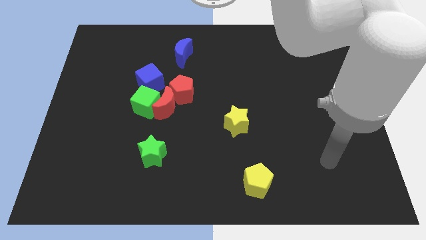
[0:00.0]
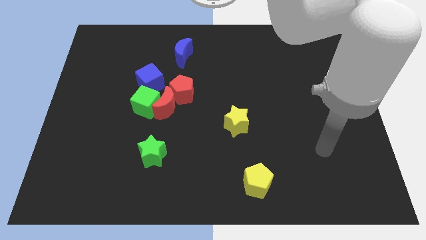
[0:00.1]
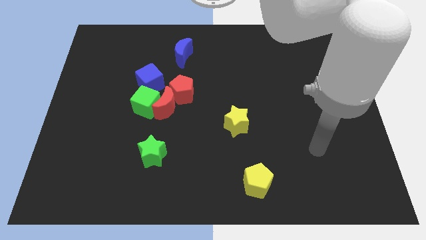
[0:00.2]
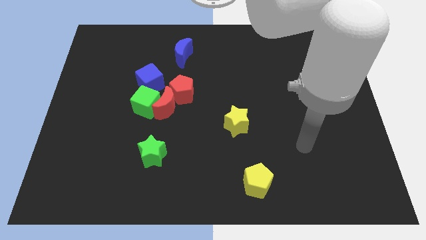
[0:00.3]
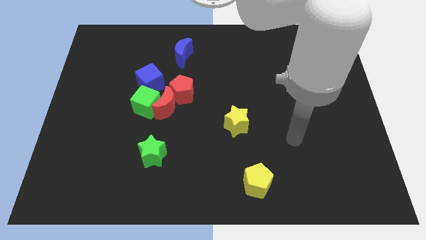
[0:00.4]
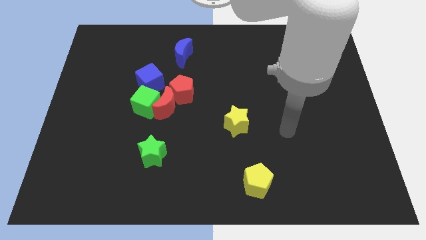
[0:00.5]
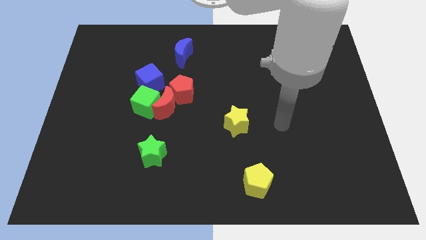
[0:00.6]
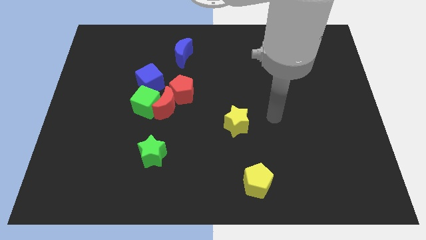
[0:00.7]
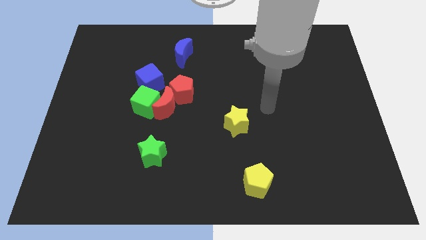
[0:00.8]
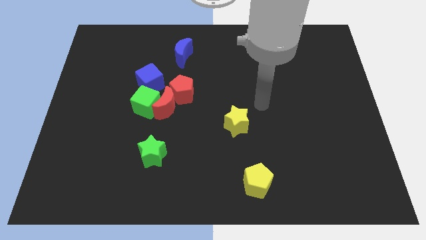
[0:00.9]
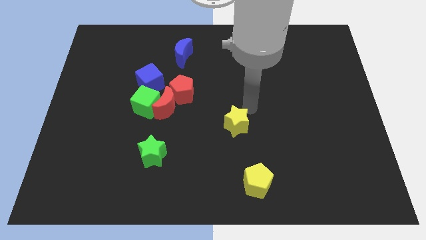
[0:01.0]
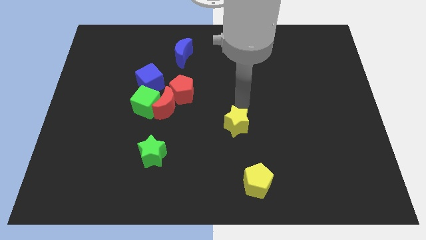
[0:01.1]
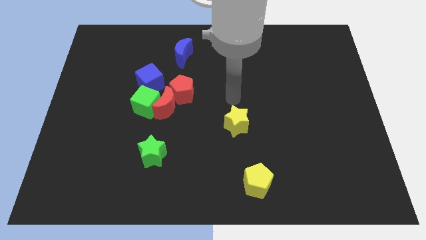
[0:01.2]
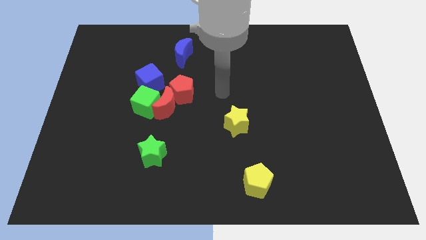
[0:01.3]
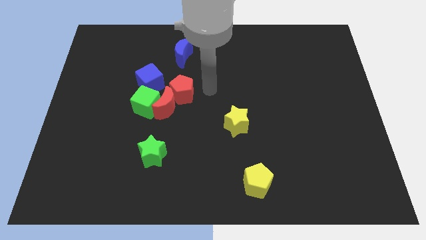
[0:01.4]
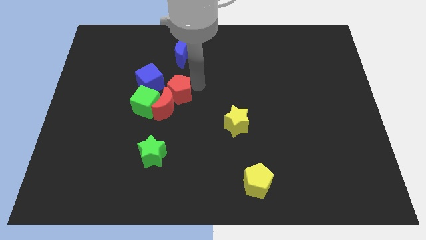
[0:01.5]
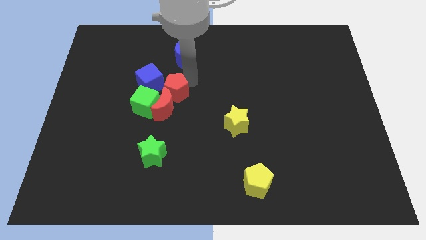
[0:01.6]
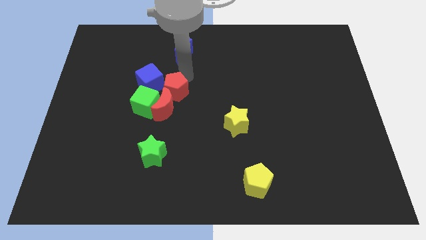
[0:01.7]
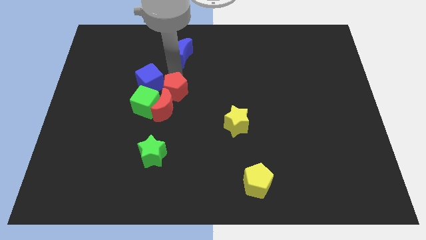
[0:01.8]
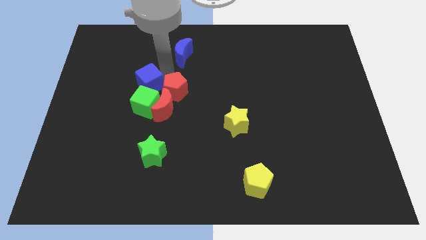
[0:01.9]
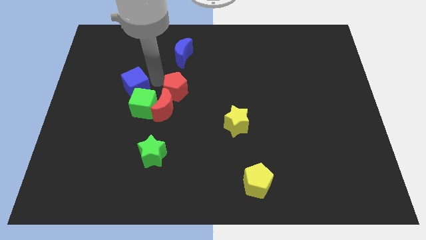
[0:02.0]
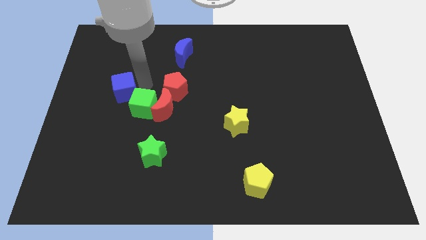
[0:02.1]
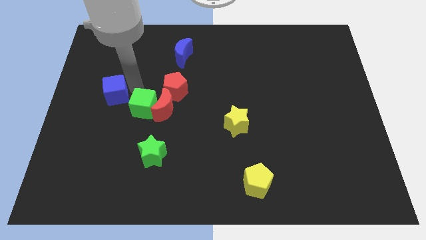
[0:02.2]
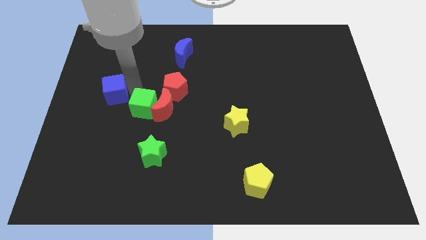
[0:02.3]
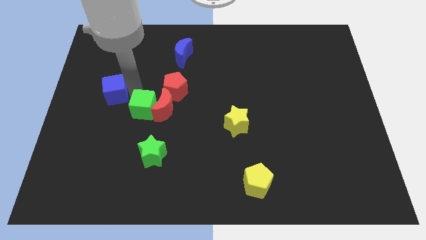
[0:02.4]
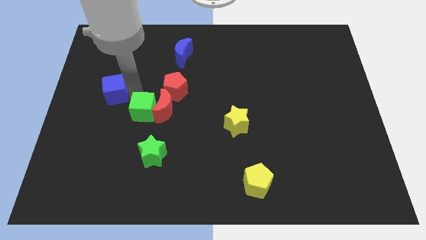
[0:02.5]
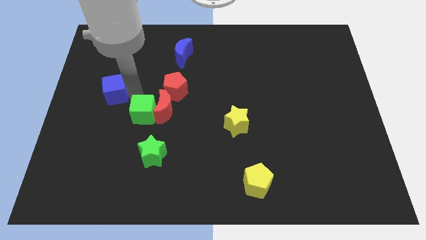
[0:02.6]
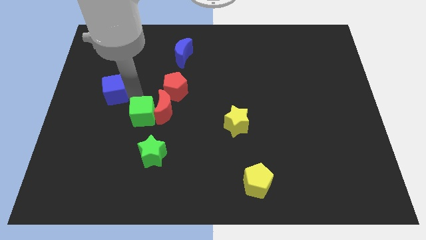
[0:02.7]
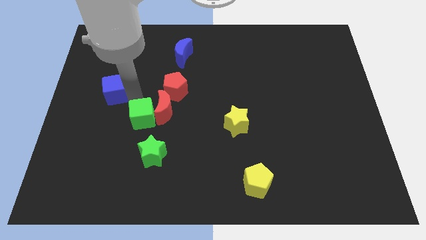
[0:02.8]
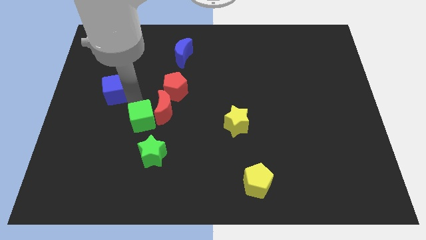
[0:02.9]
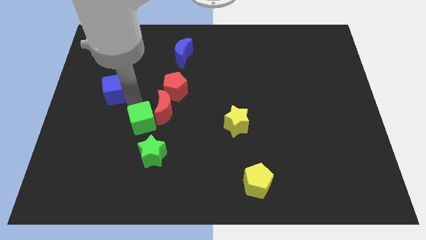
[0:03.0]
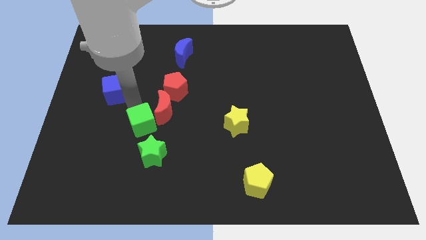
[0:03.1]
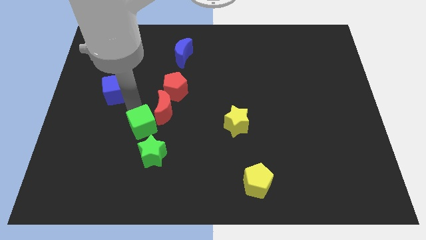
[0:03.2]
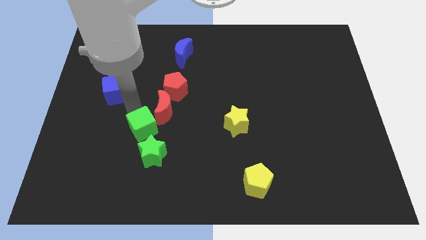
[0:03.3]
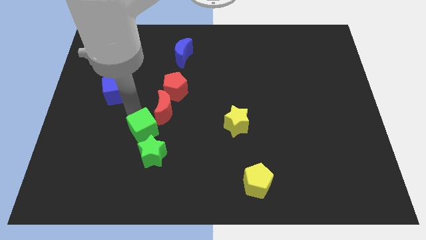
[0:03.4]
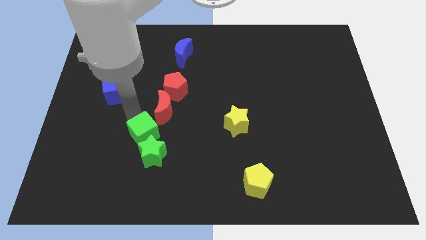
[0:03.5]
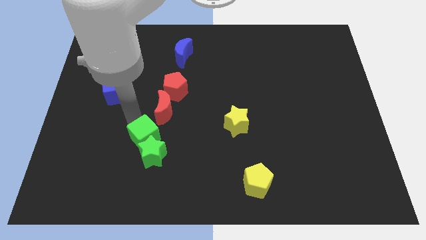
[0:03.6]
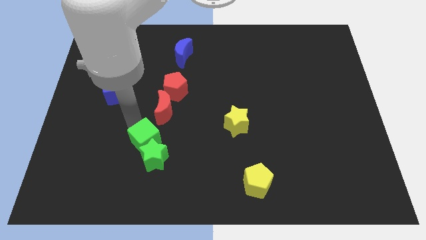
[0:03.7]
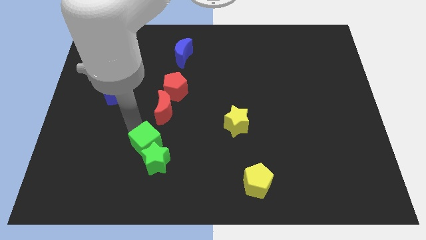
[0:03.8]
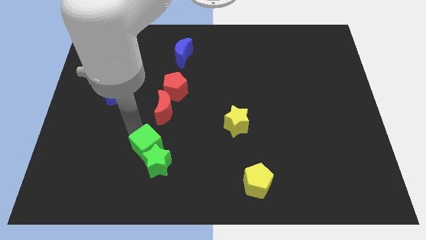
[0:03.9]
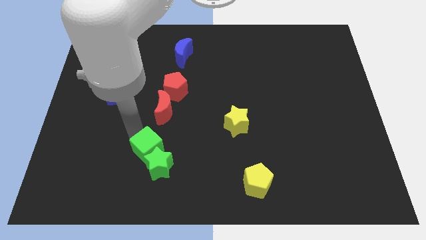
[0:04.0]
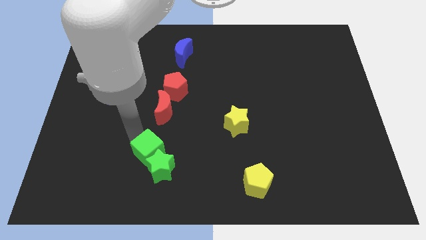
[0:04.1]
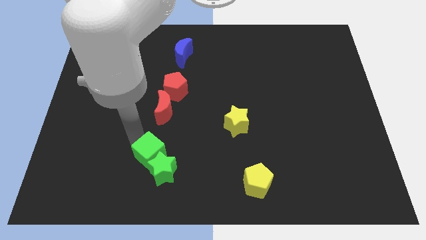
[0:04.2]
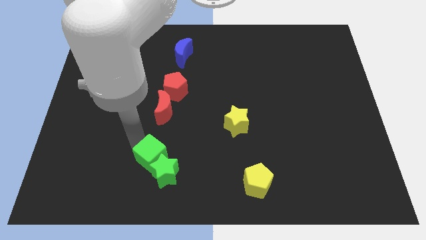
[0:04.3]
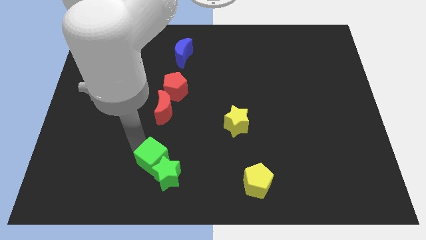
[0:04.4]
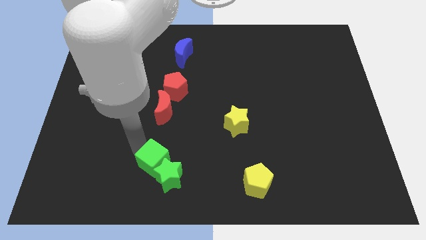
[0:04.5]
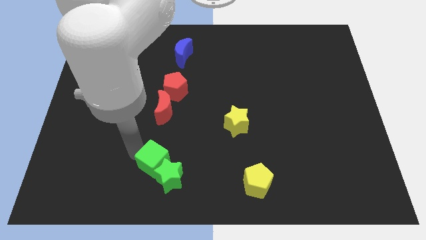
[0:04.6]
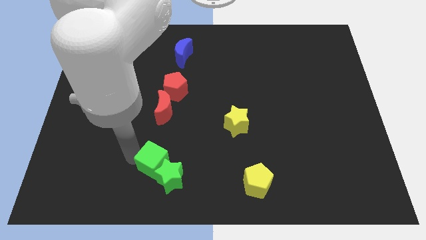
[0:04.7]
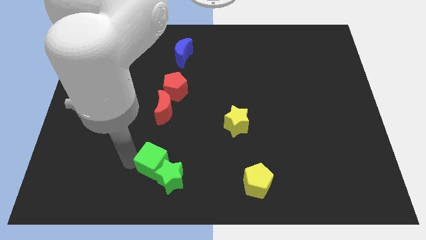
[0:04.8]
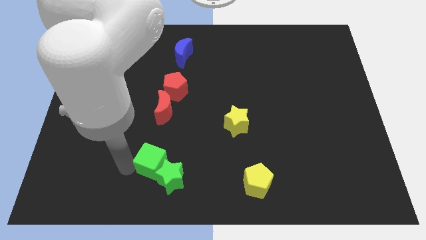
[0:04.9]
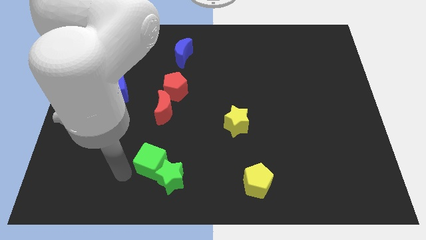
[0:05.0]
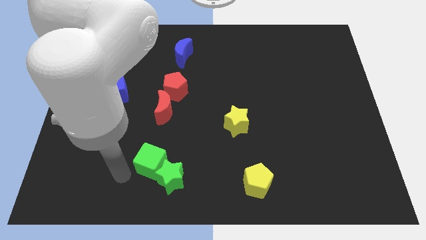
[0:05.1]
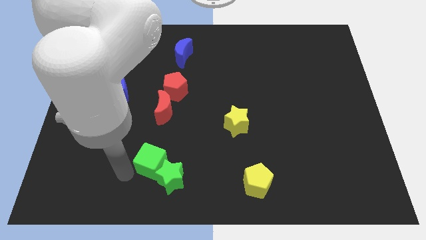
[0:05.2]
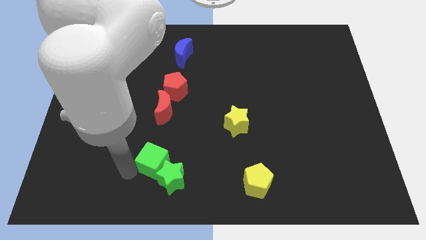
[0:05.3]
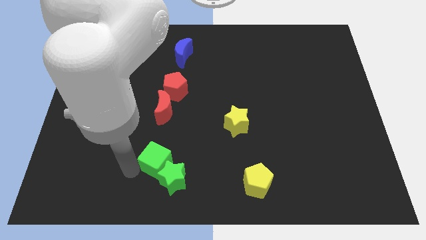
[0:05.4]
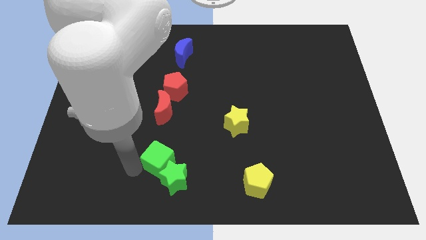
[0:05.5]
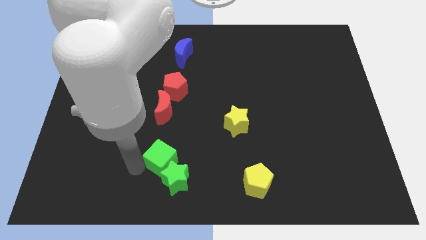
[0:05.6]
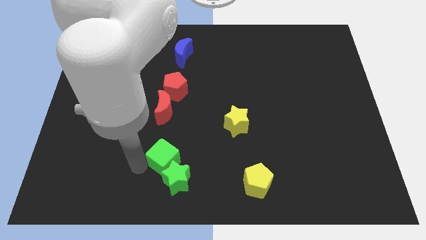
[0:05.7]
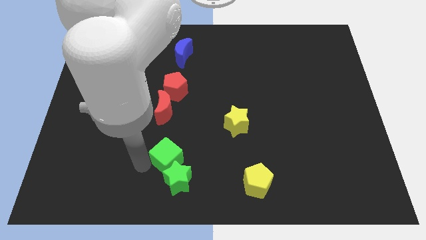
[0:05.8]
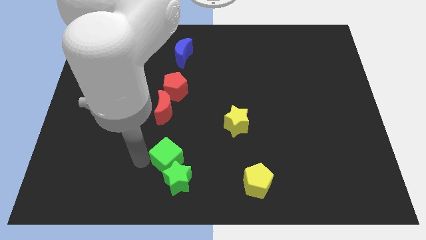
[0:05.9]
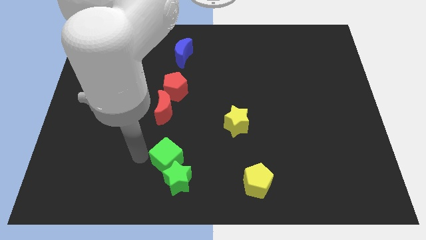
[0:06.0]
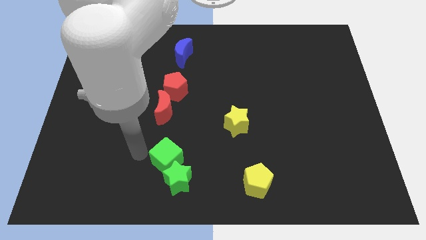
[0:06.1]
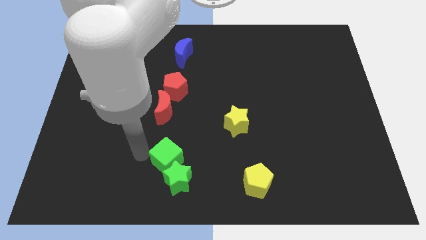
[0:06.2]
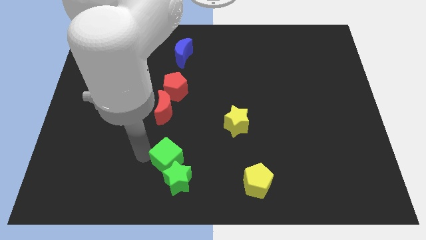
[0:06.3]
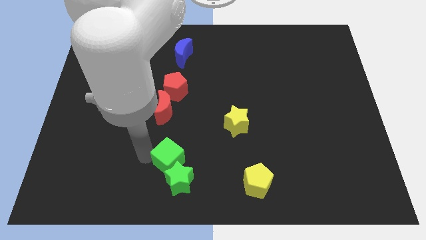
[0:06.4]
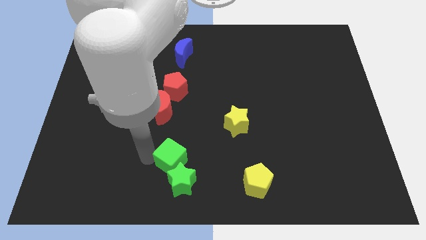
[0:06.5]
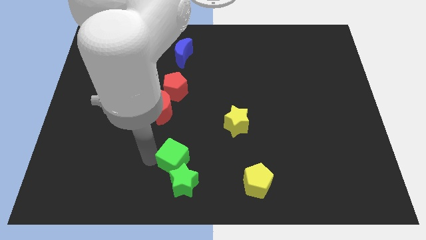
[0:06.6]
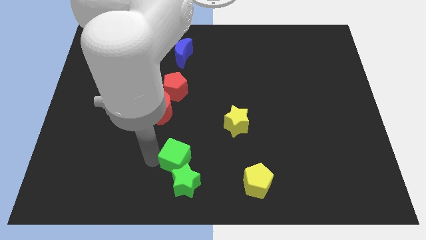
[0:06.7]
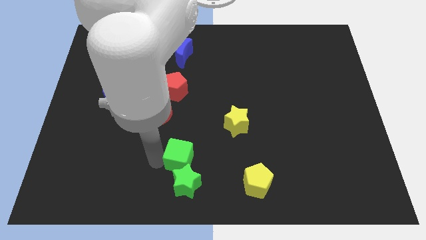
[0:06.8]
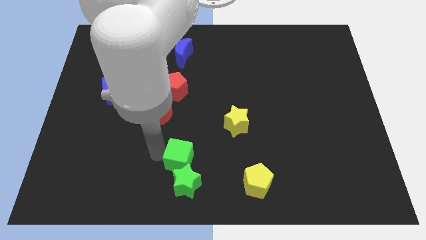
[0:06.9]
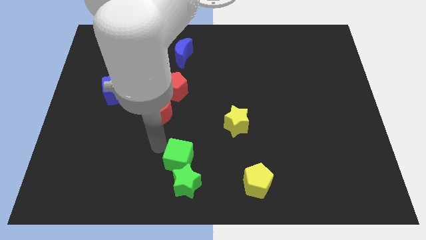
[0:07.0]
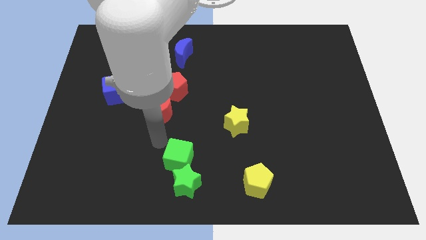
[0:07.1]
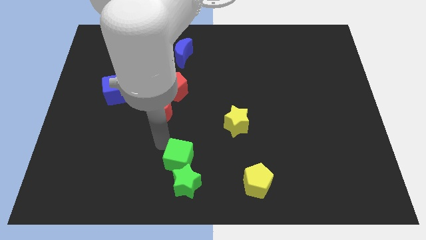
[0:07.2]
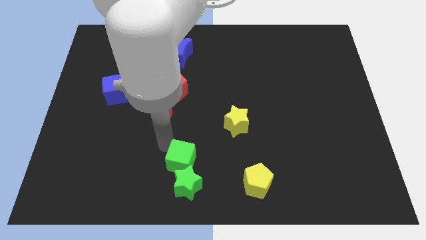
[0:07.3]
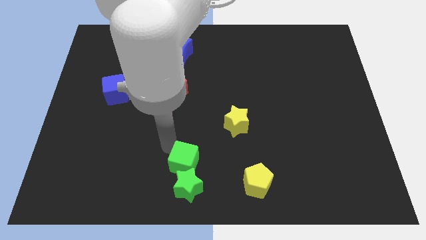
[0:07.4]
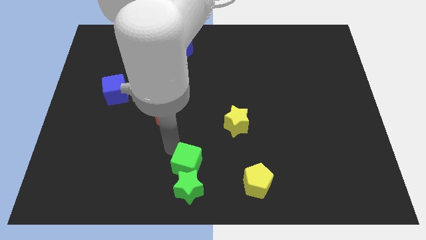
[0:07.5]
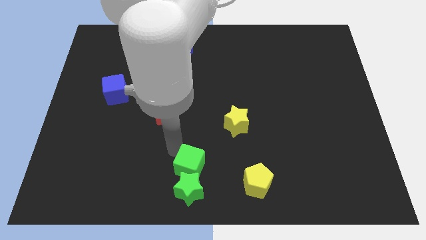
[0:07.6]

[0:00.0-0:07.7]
push the green cube just left of the yellow pentagon
